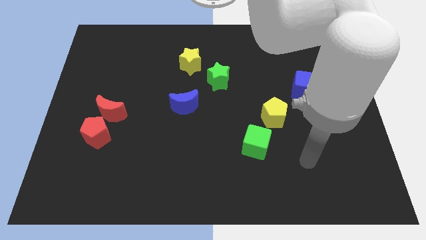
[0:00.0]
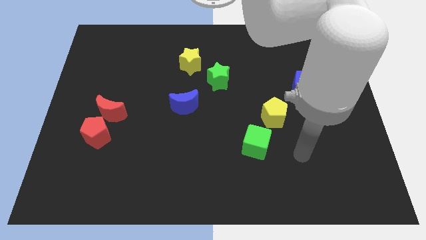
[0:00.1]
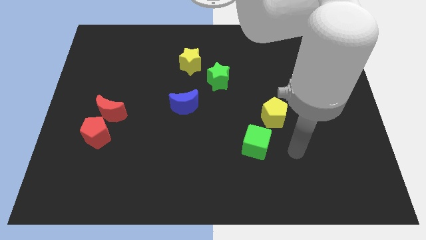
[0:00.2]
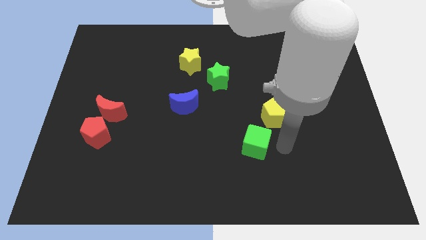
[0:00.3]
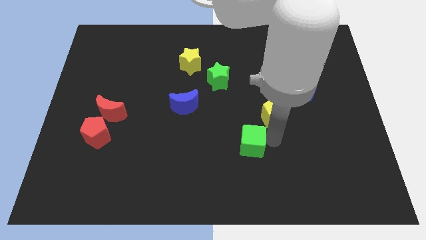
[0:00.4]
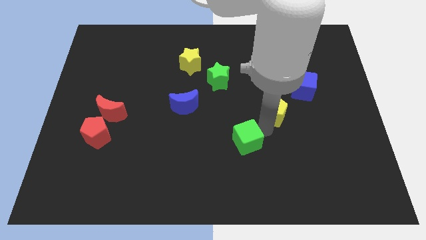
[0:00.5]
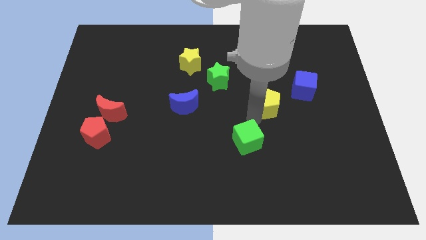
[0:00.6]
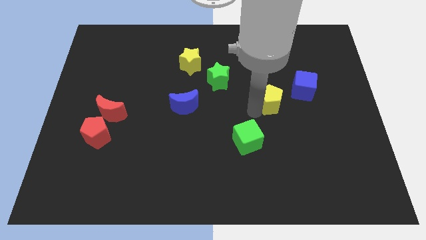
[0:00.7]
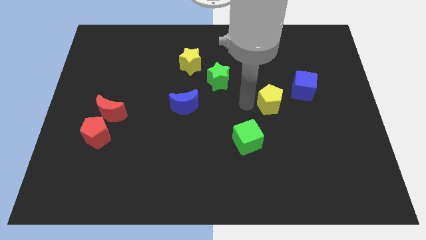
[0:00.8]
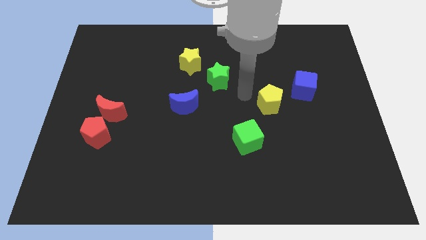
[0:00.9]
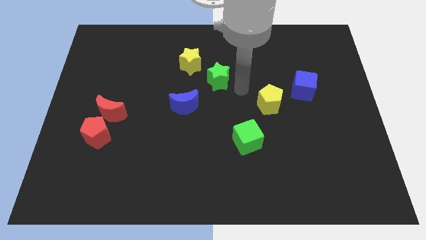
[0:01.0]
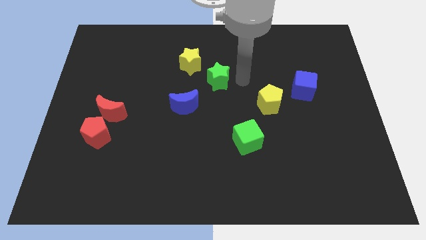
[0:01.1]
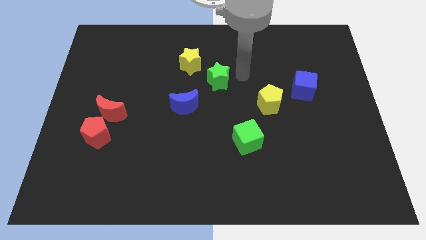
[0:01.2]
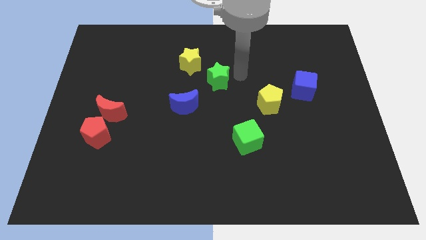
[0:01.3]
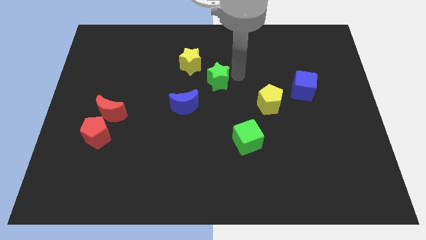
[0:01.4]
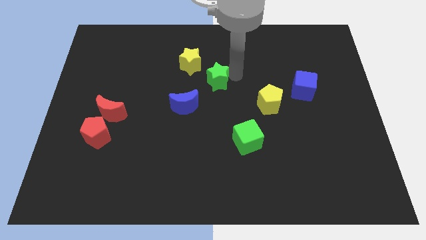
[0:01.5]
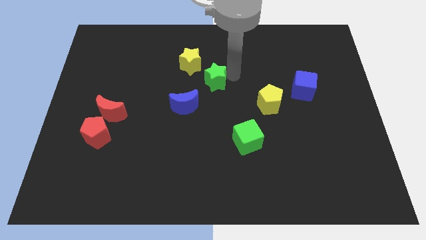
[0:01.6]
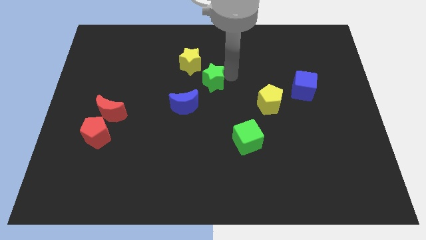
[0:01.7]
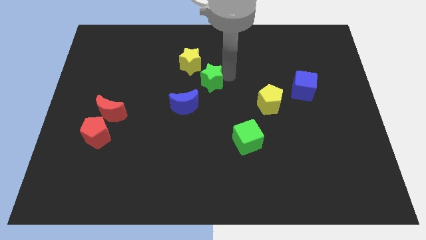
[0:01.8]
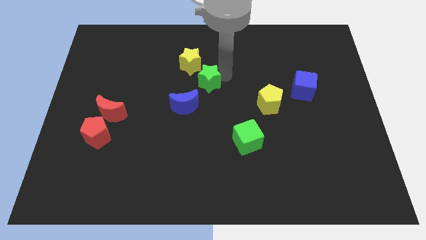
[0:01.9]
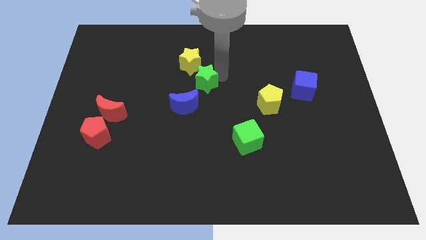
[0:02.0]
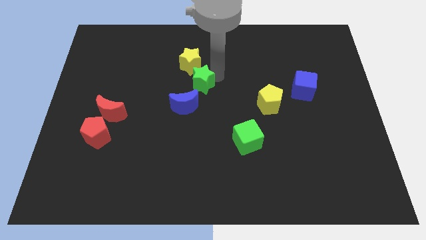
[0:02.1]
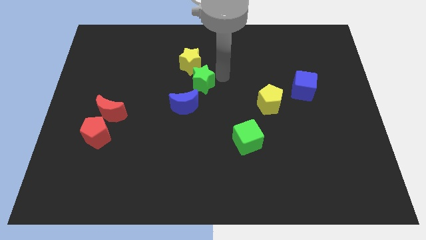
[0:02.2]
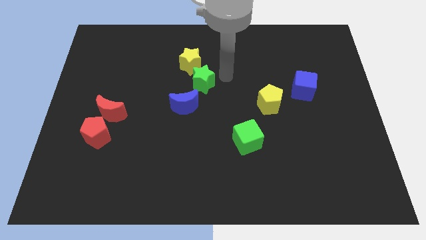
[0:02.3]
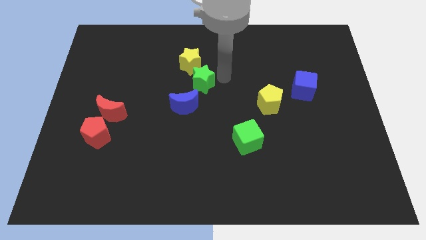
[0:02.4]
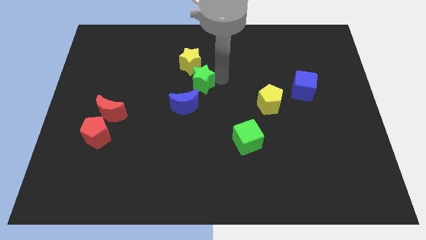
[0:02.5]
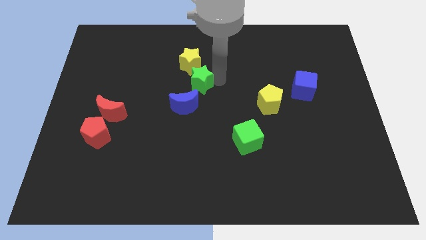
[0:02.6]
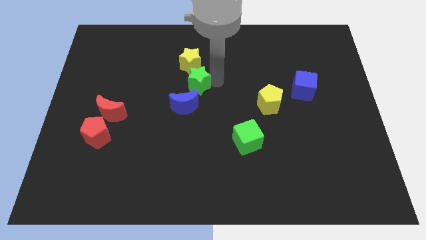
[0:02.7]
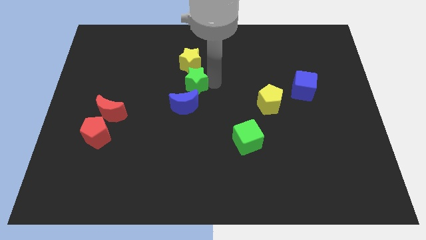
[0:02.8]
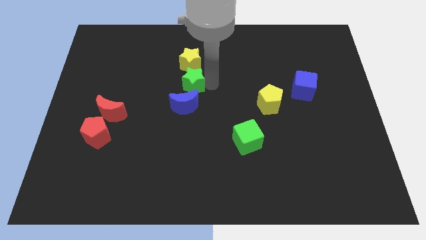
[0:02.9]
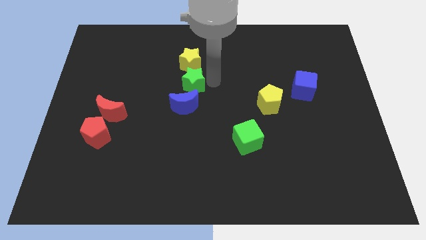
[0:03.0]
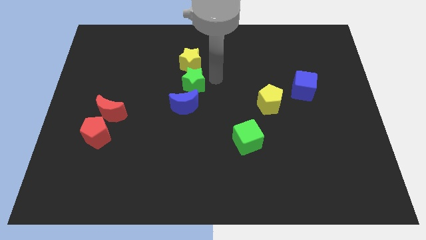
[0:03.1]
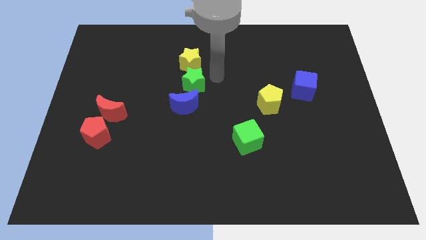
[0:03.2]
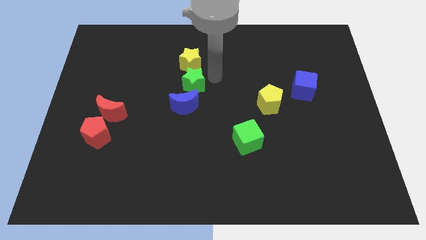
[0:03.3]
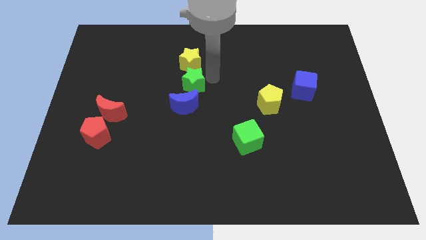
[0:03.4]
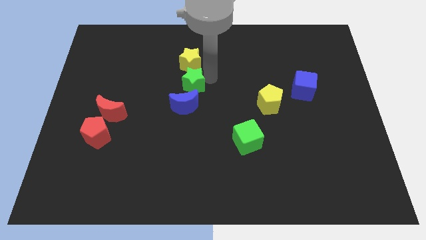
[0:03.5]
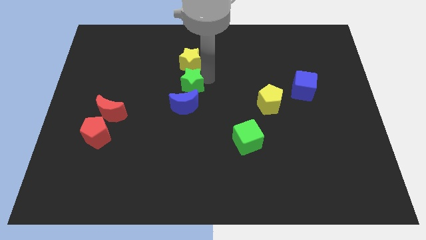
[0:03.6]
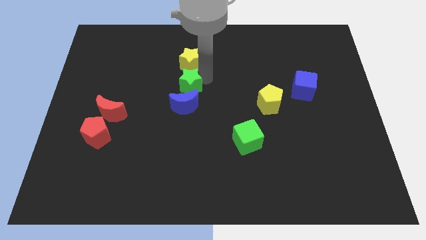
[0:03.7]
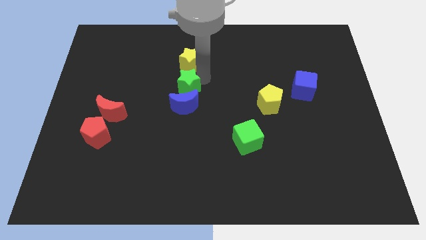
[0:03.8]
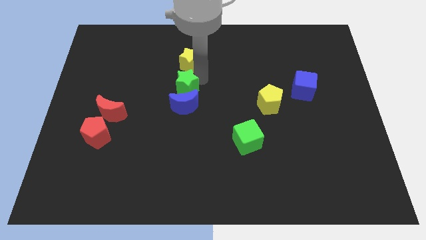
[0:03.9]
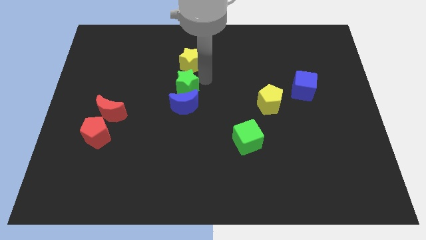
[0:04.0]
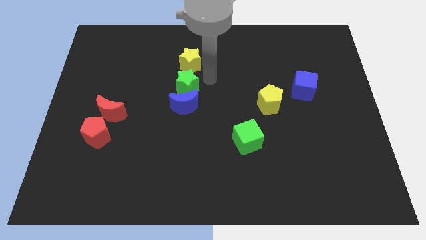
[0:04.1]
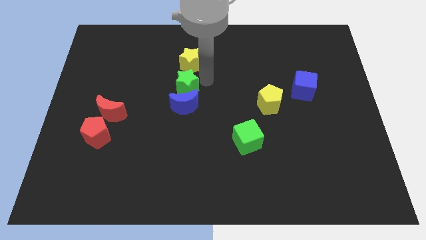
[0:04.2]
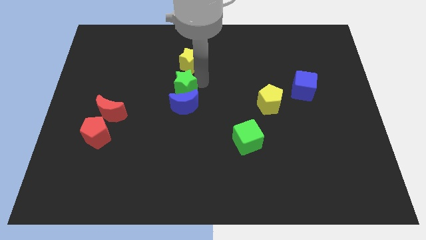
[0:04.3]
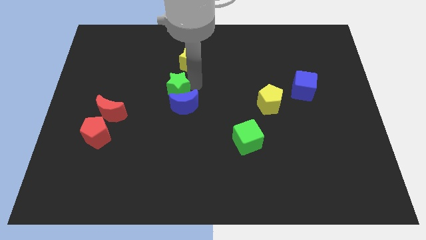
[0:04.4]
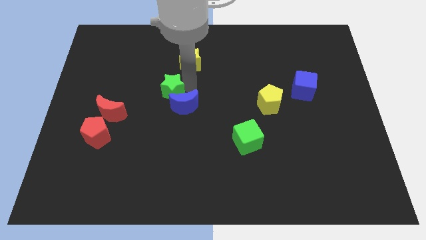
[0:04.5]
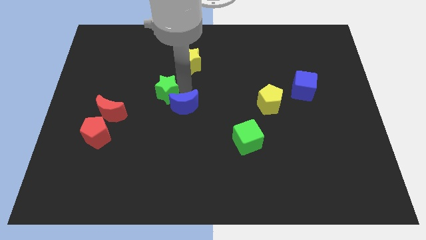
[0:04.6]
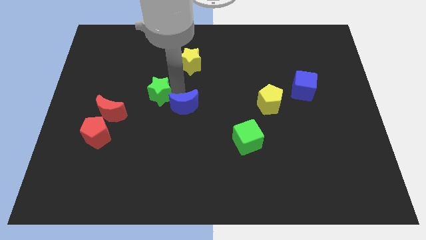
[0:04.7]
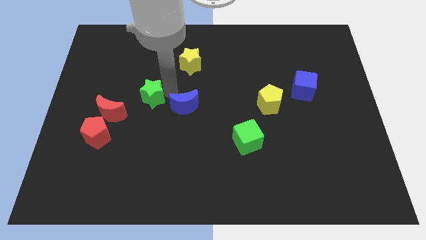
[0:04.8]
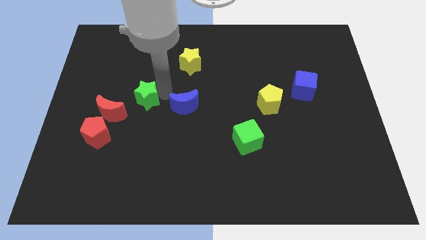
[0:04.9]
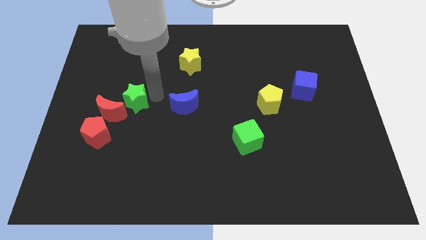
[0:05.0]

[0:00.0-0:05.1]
move the green star to the red moon

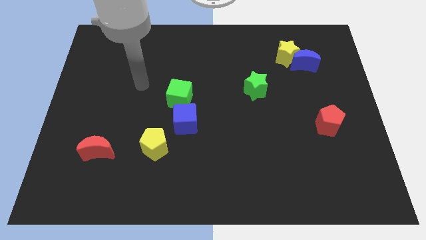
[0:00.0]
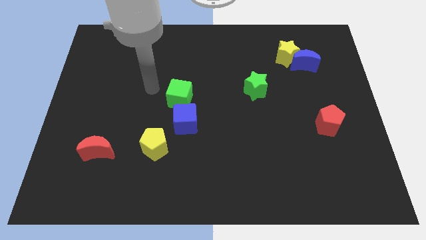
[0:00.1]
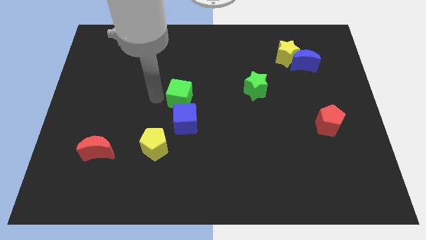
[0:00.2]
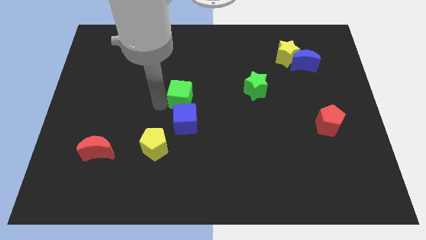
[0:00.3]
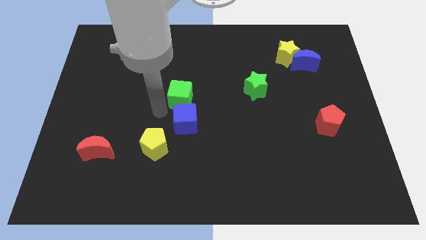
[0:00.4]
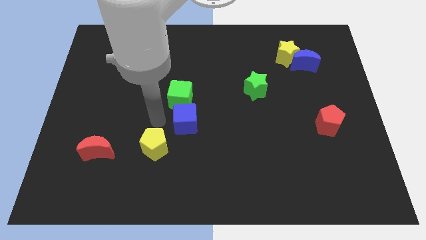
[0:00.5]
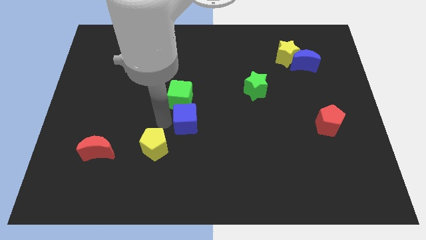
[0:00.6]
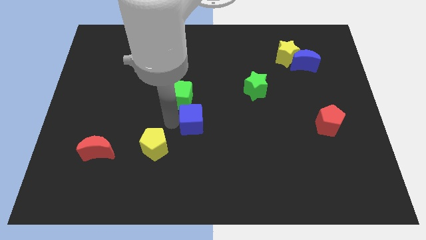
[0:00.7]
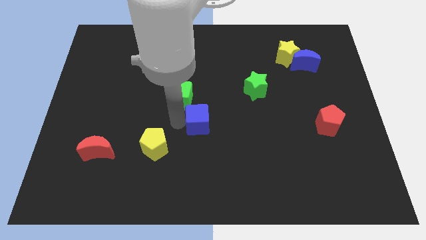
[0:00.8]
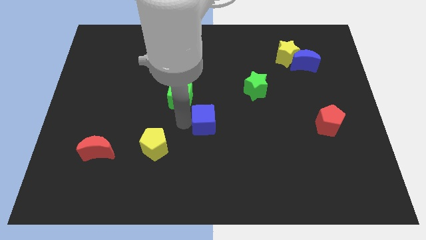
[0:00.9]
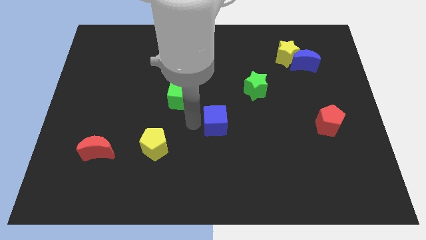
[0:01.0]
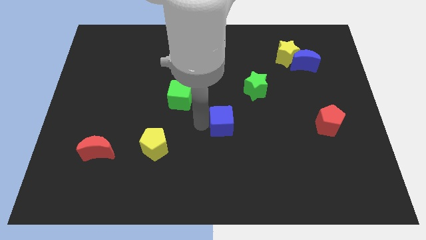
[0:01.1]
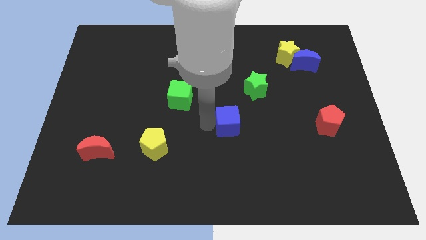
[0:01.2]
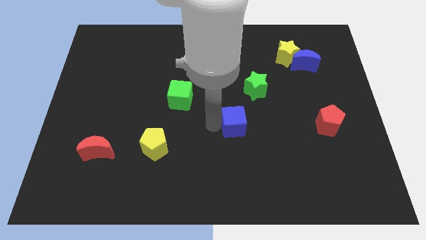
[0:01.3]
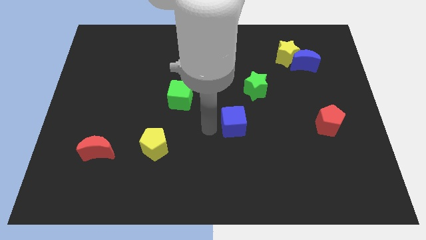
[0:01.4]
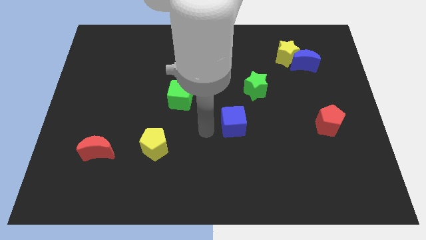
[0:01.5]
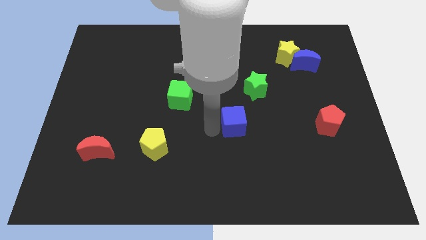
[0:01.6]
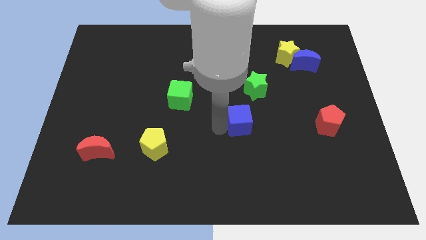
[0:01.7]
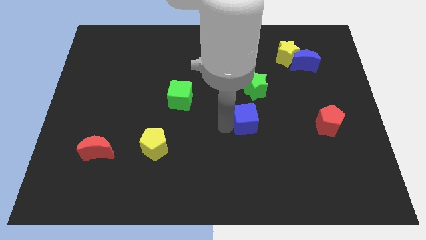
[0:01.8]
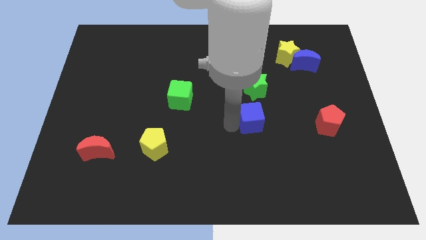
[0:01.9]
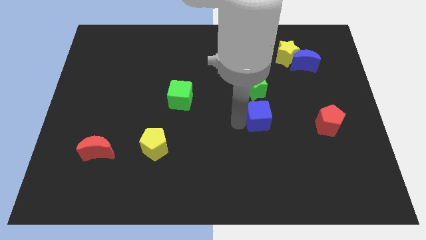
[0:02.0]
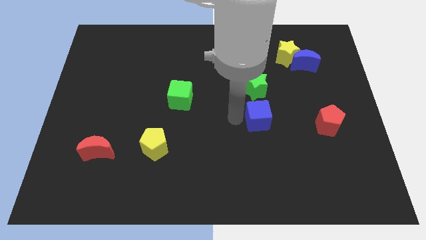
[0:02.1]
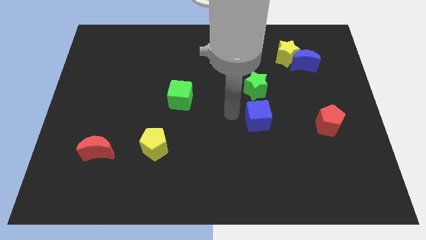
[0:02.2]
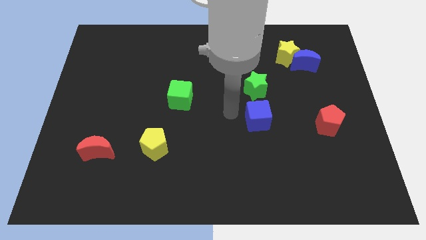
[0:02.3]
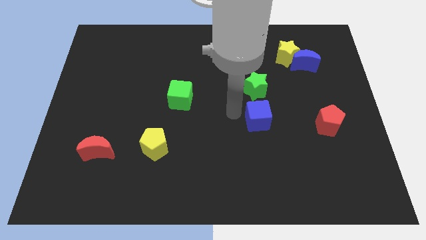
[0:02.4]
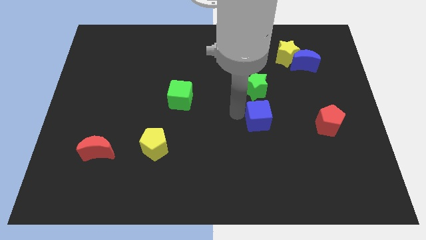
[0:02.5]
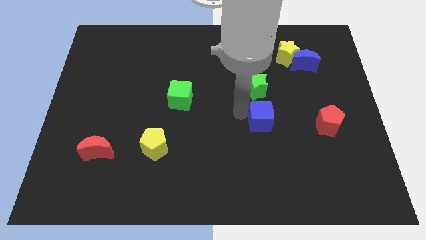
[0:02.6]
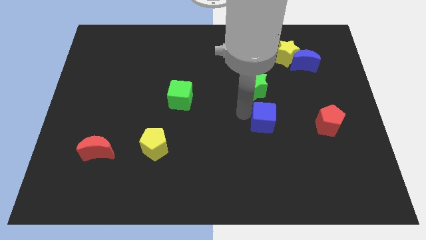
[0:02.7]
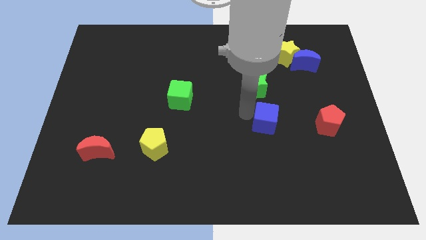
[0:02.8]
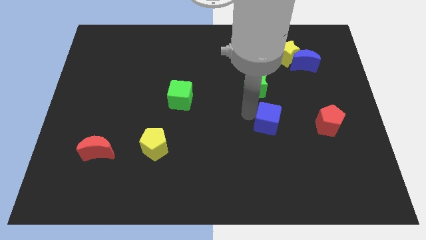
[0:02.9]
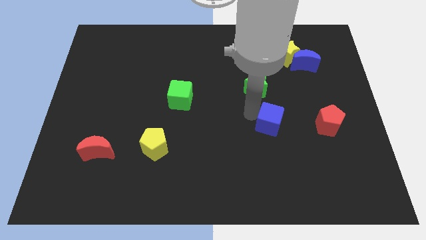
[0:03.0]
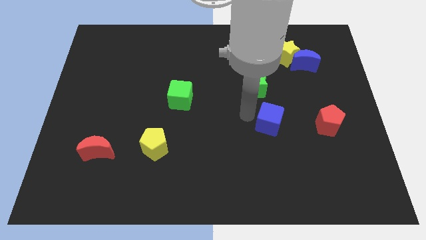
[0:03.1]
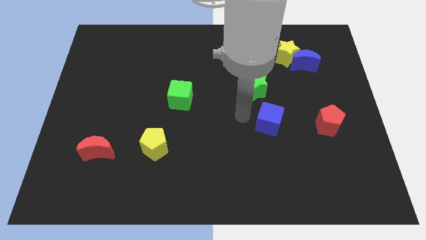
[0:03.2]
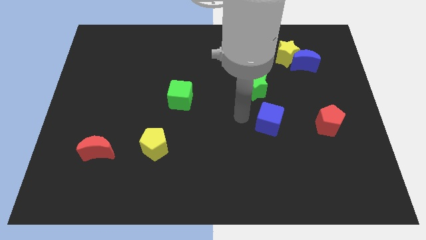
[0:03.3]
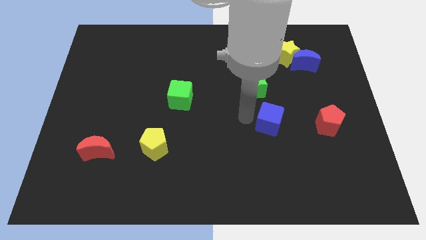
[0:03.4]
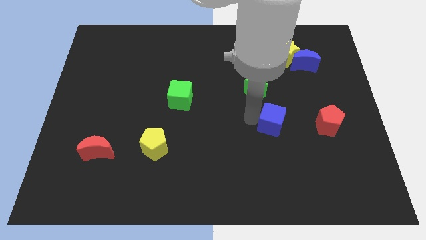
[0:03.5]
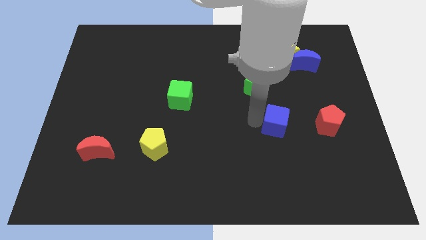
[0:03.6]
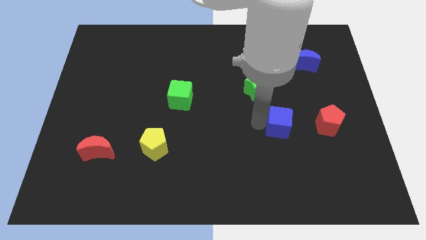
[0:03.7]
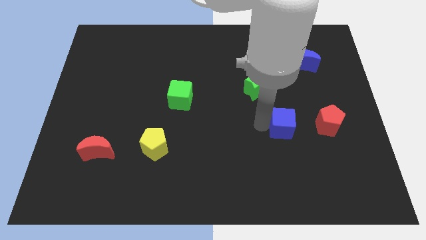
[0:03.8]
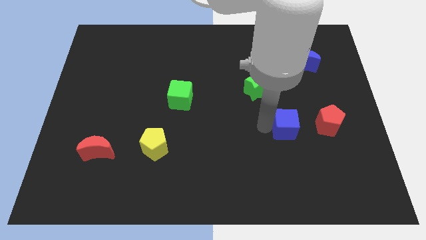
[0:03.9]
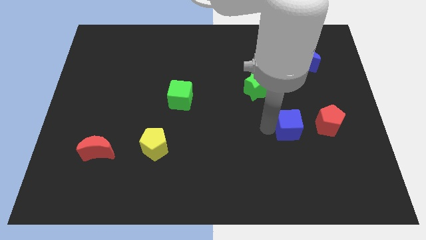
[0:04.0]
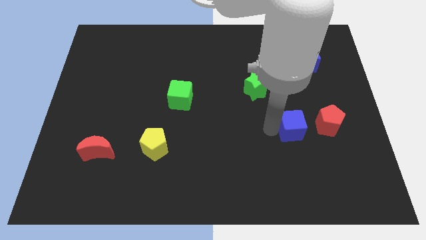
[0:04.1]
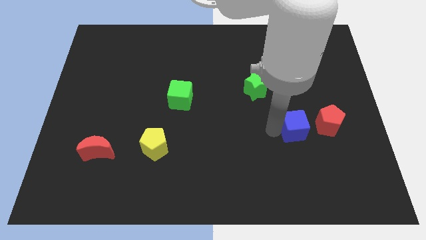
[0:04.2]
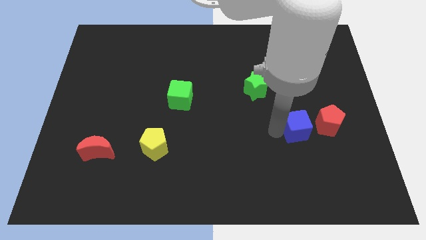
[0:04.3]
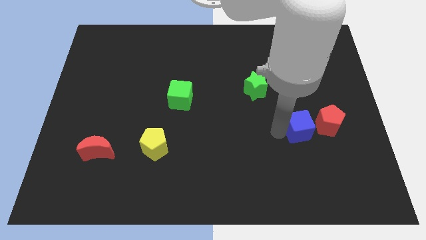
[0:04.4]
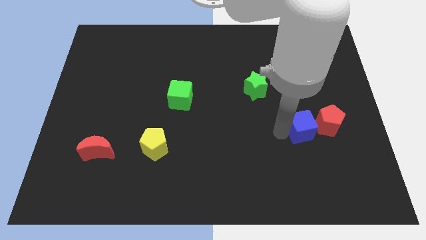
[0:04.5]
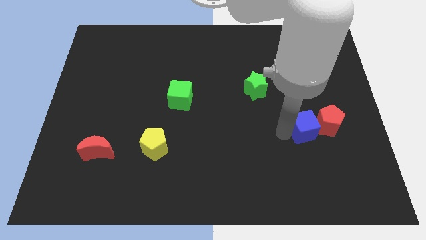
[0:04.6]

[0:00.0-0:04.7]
put the blue cube towards the red pentagon
